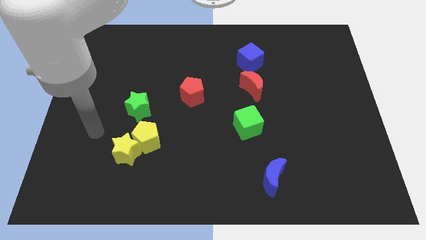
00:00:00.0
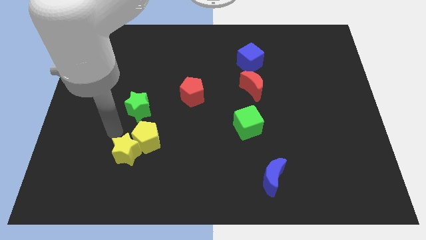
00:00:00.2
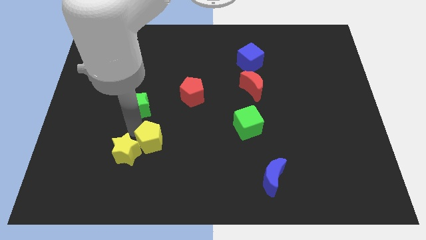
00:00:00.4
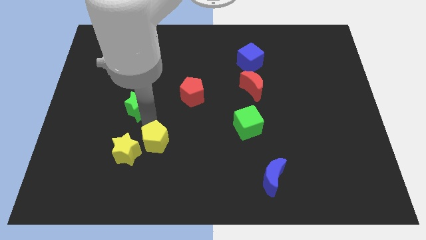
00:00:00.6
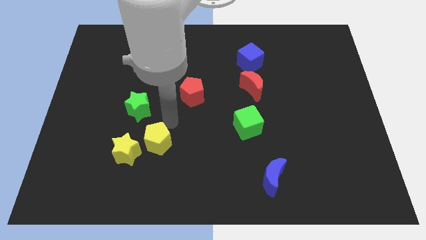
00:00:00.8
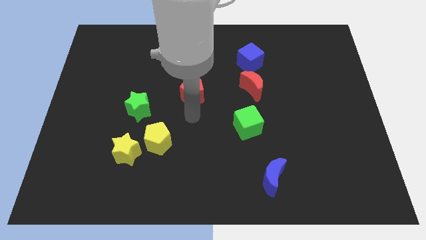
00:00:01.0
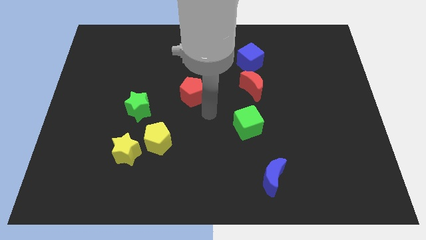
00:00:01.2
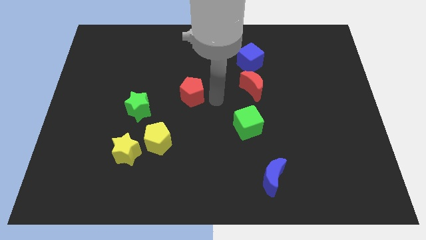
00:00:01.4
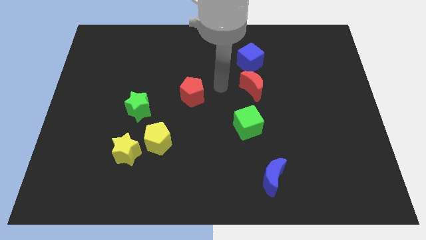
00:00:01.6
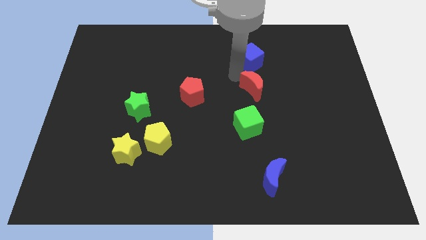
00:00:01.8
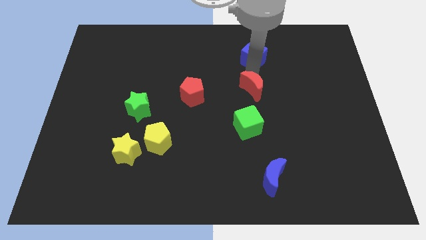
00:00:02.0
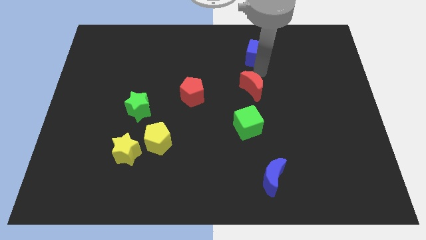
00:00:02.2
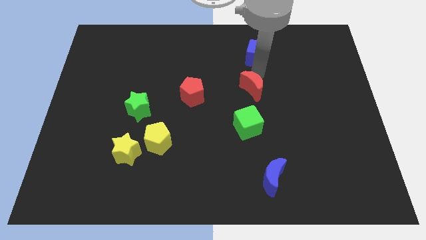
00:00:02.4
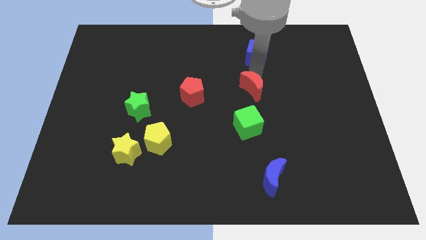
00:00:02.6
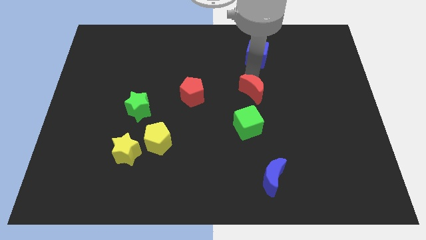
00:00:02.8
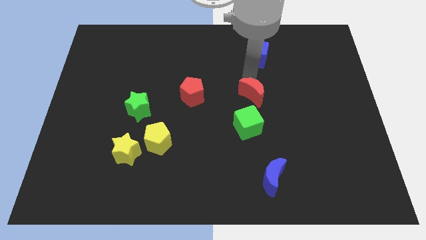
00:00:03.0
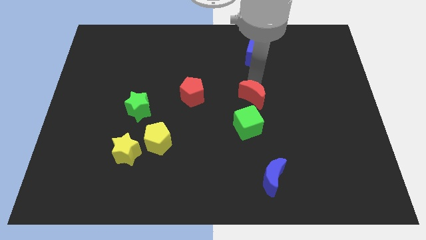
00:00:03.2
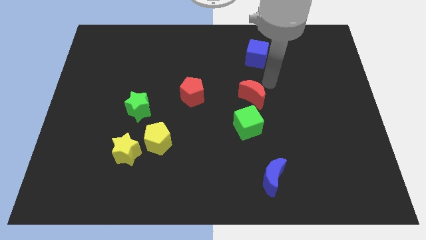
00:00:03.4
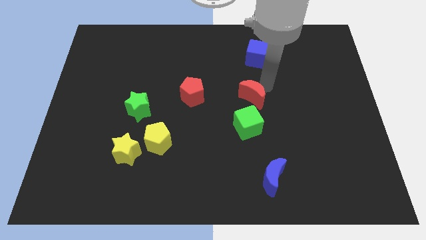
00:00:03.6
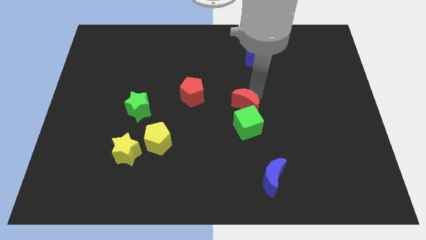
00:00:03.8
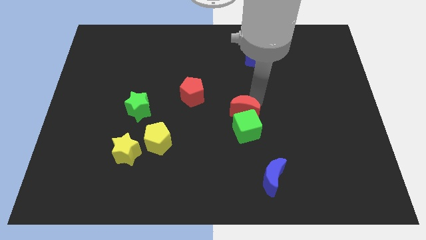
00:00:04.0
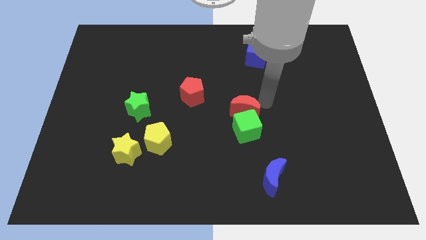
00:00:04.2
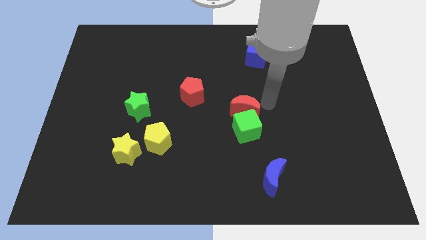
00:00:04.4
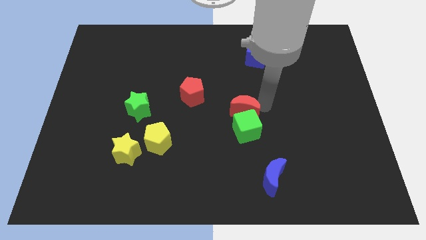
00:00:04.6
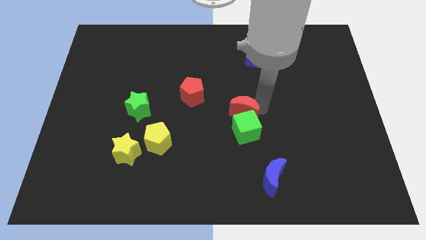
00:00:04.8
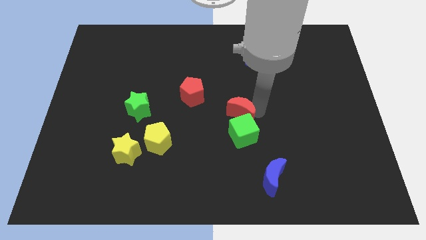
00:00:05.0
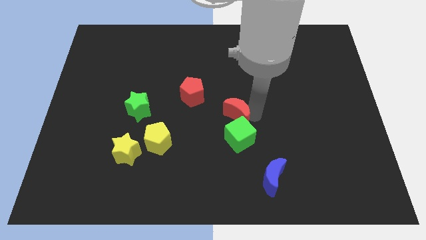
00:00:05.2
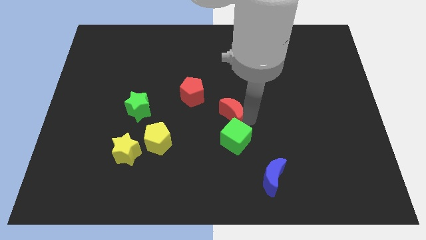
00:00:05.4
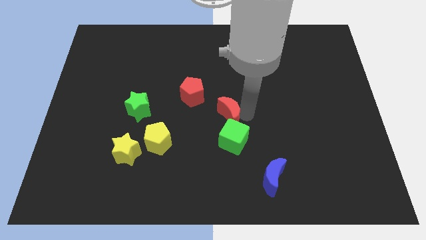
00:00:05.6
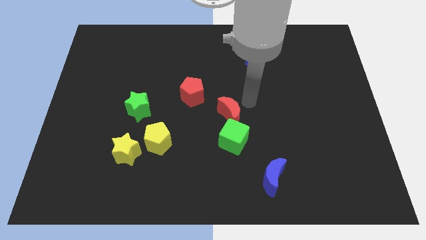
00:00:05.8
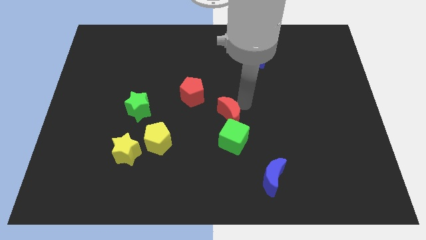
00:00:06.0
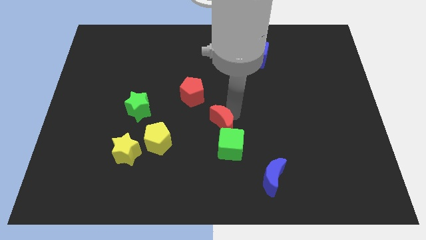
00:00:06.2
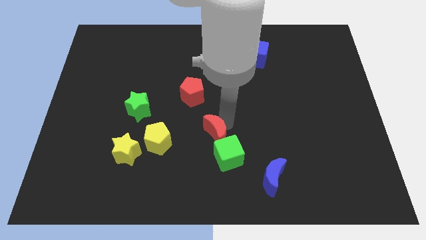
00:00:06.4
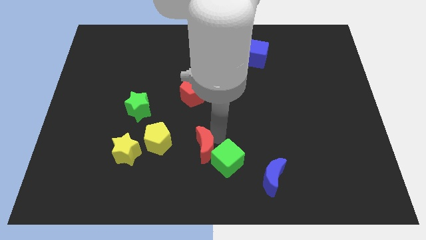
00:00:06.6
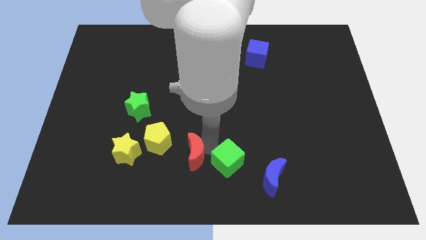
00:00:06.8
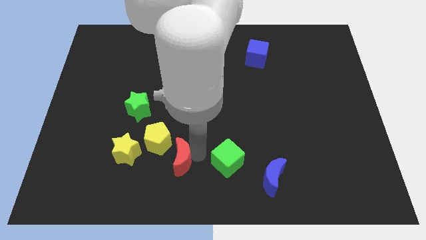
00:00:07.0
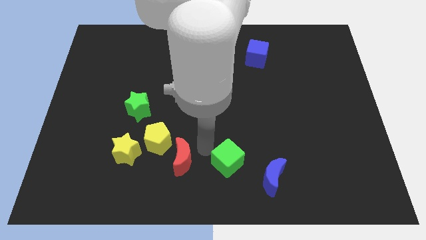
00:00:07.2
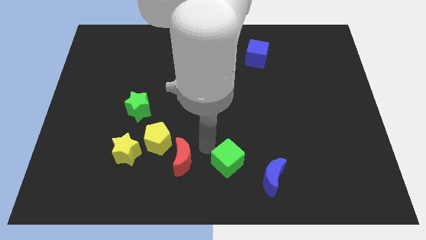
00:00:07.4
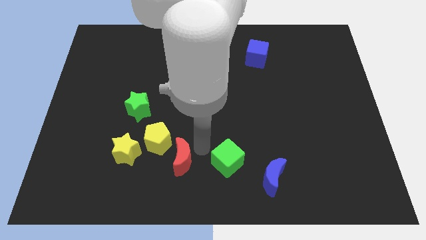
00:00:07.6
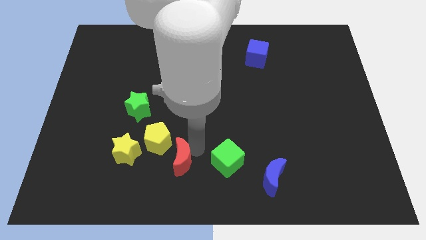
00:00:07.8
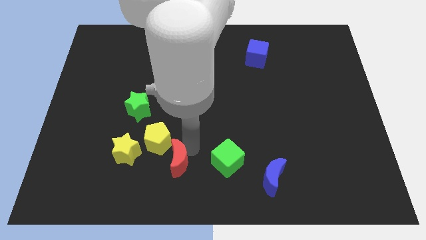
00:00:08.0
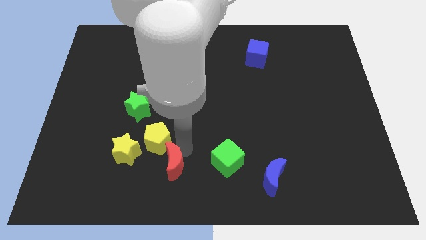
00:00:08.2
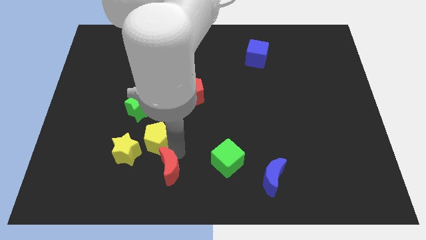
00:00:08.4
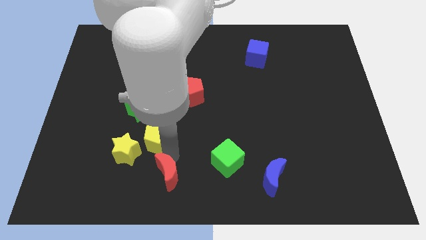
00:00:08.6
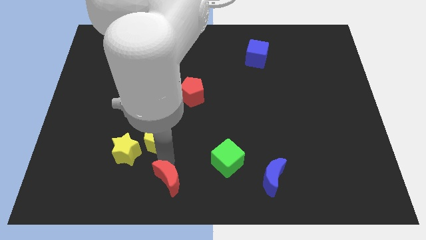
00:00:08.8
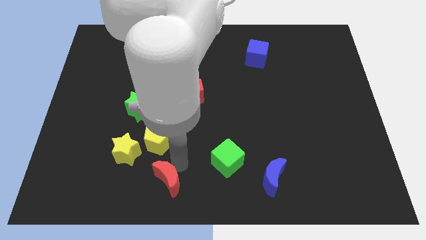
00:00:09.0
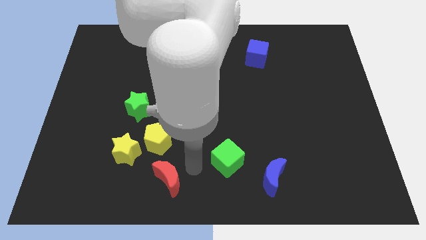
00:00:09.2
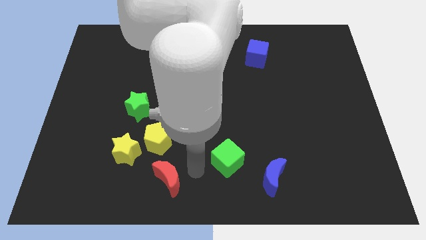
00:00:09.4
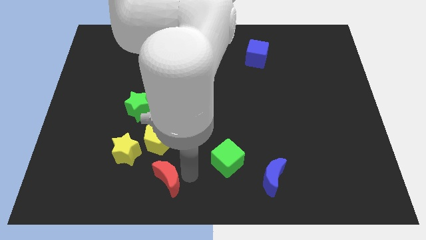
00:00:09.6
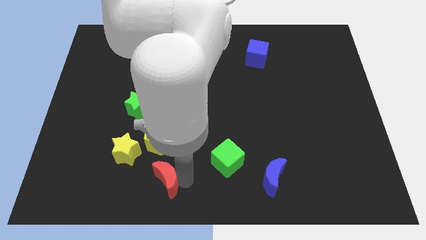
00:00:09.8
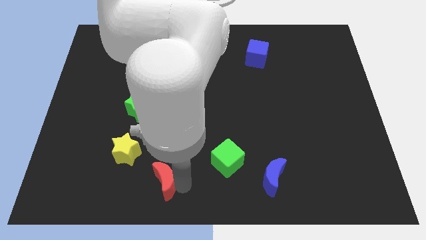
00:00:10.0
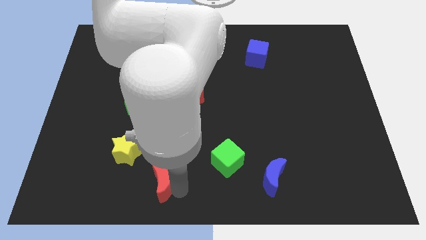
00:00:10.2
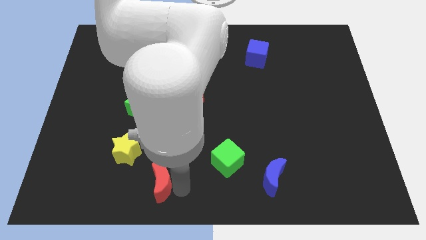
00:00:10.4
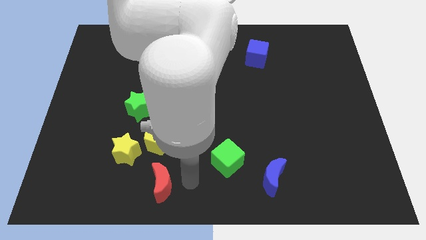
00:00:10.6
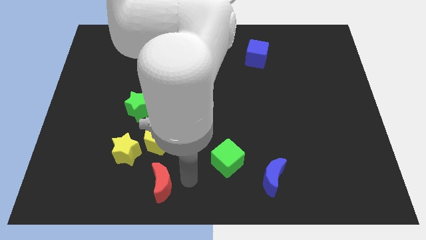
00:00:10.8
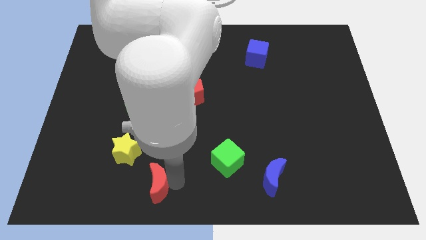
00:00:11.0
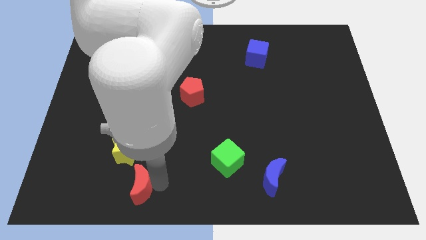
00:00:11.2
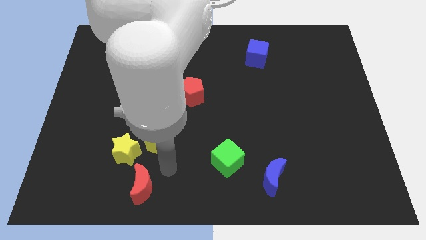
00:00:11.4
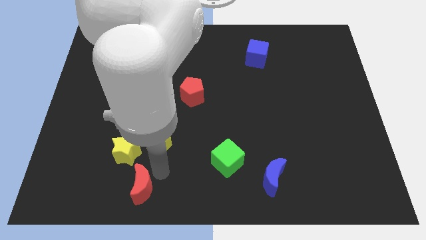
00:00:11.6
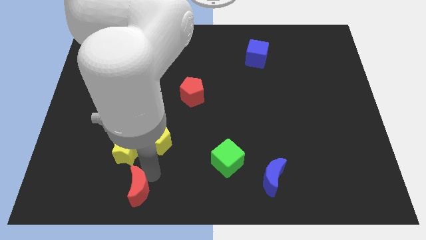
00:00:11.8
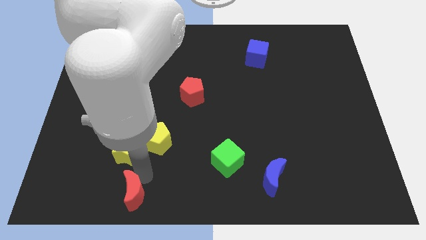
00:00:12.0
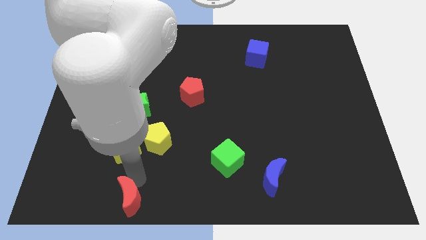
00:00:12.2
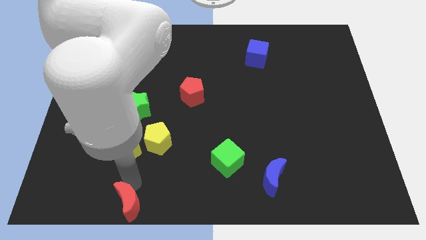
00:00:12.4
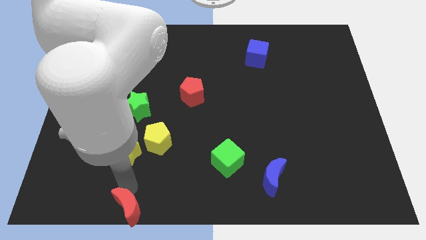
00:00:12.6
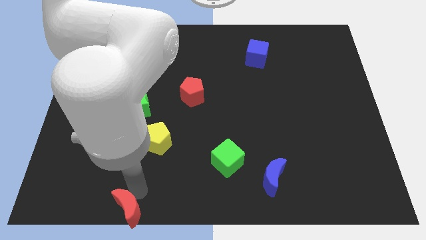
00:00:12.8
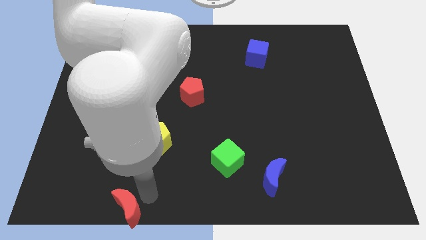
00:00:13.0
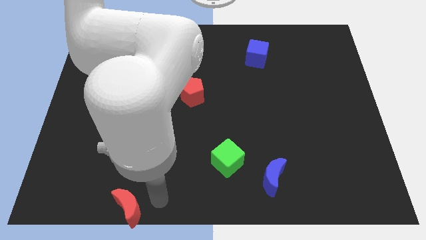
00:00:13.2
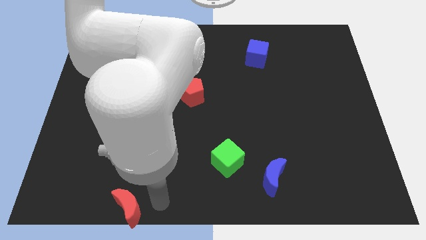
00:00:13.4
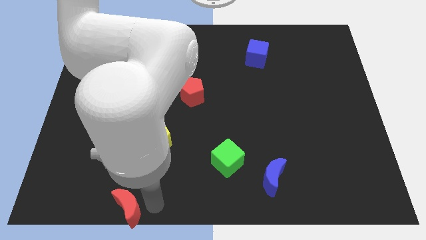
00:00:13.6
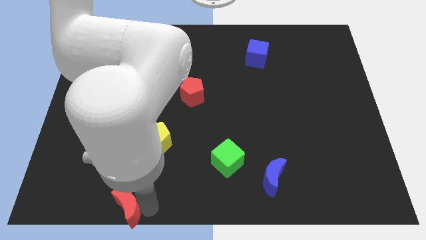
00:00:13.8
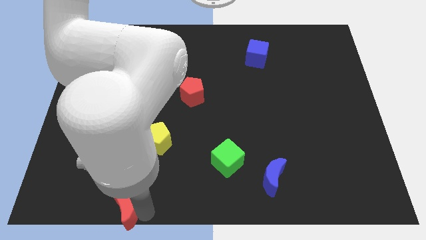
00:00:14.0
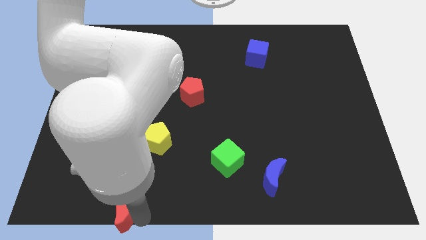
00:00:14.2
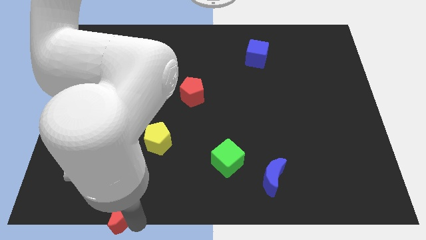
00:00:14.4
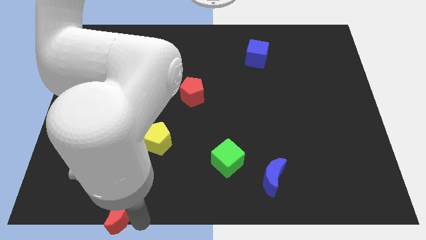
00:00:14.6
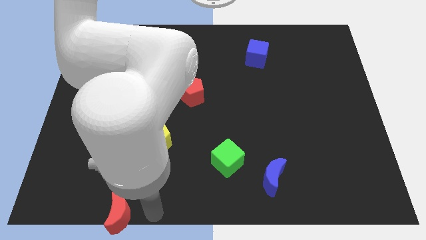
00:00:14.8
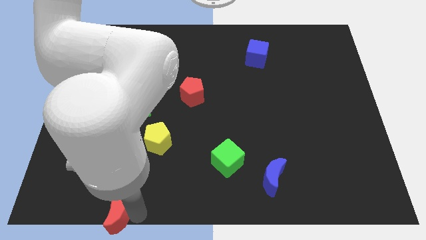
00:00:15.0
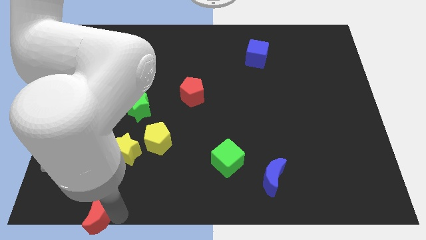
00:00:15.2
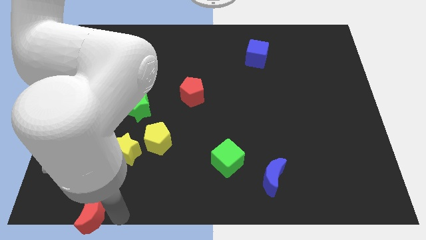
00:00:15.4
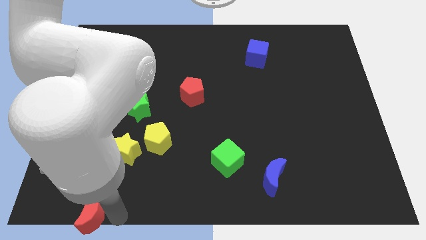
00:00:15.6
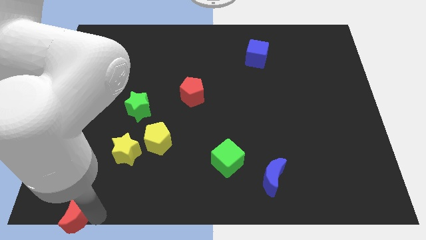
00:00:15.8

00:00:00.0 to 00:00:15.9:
put the red moon to the bottom left of the board
